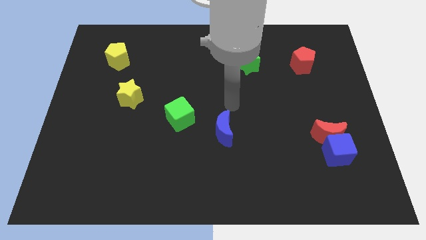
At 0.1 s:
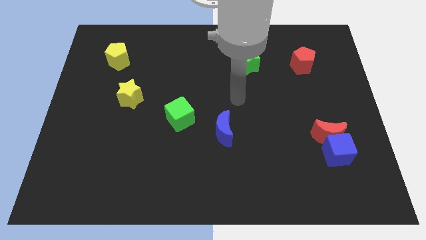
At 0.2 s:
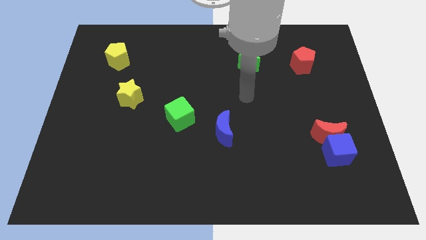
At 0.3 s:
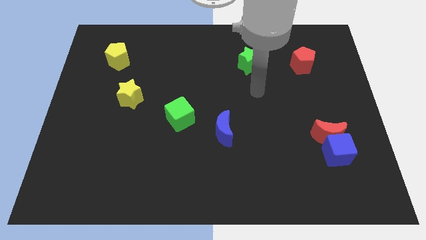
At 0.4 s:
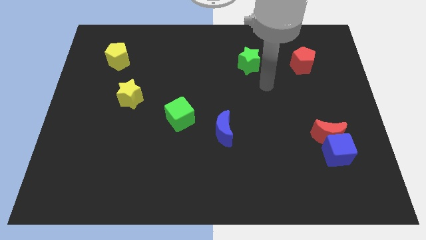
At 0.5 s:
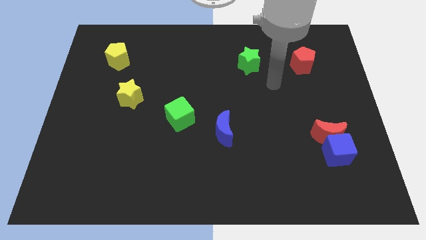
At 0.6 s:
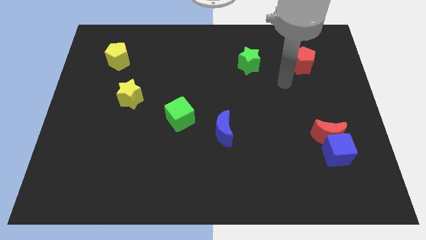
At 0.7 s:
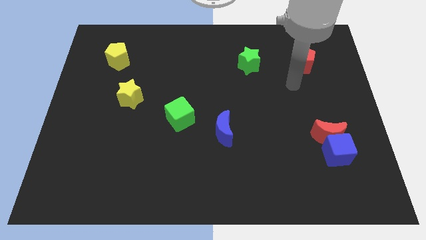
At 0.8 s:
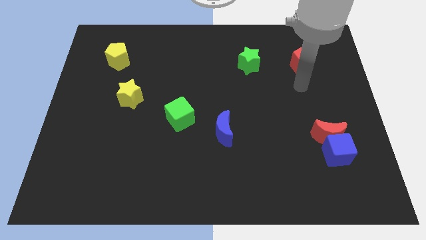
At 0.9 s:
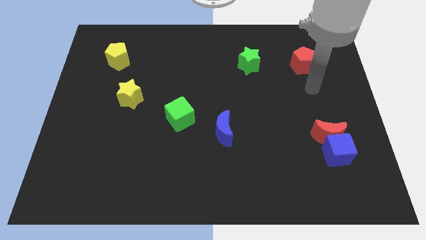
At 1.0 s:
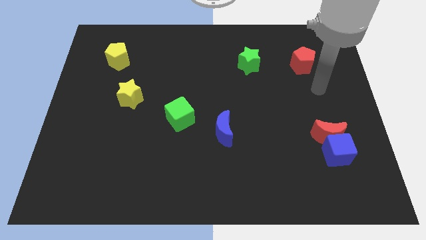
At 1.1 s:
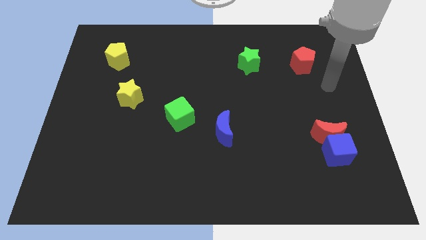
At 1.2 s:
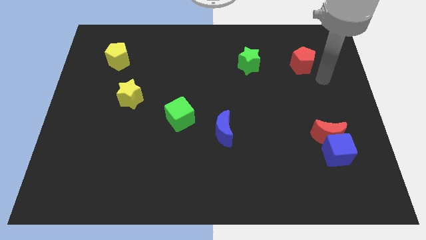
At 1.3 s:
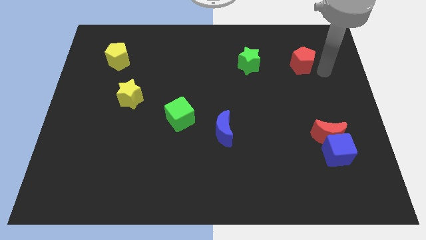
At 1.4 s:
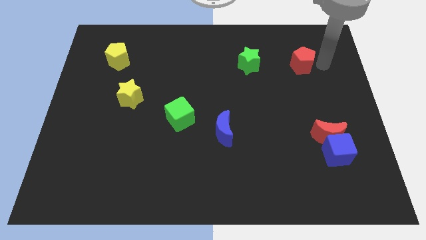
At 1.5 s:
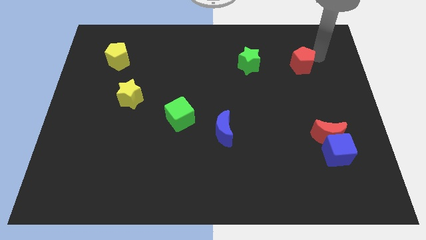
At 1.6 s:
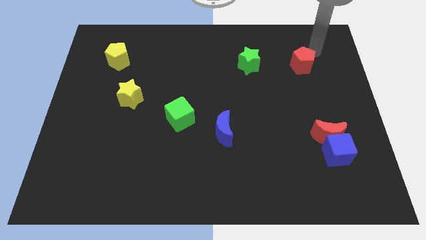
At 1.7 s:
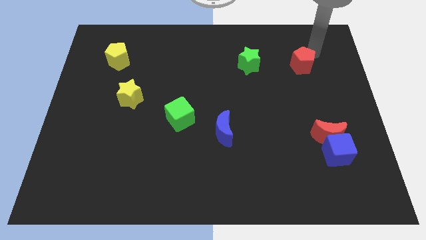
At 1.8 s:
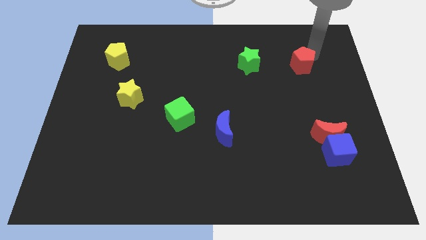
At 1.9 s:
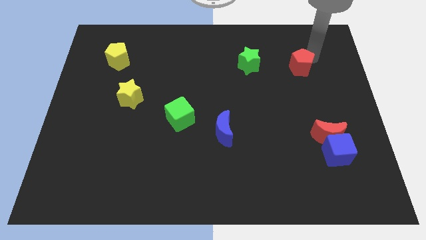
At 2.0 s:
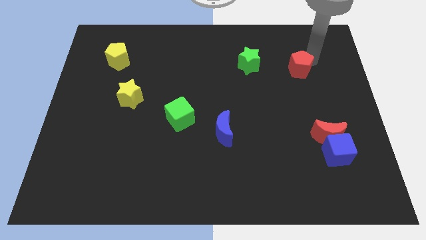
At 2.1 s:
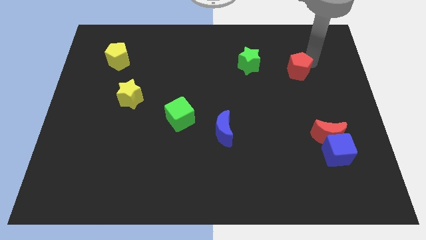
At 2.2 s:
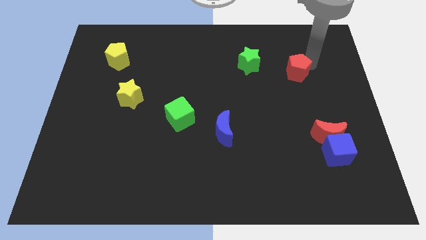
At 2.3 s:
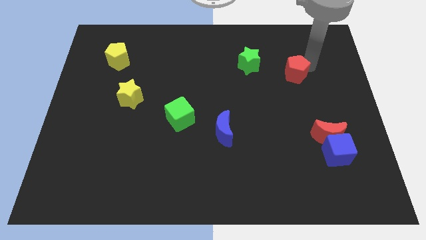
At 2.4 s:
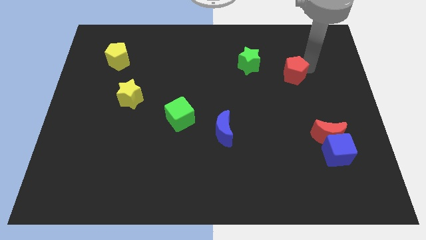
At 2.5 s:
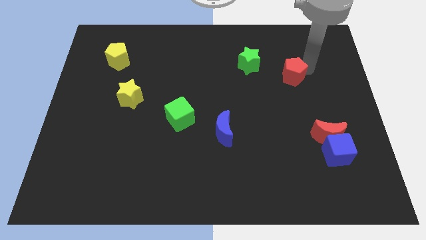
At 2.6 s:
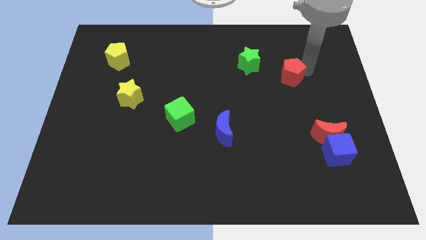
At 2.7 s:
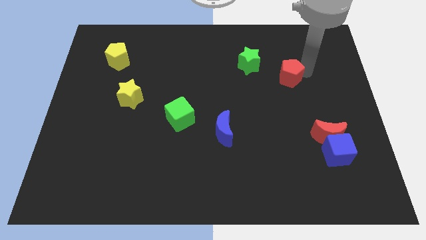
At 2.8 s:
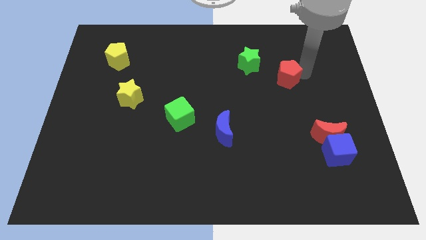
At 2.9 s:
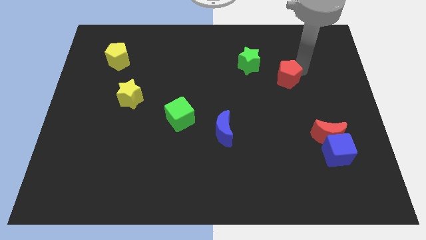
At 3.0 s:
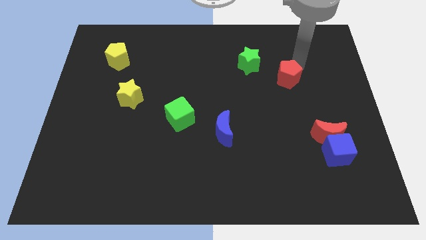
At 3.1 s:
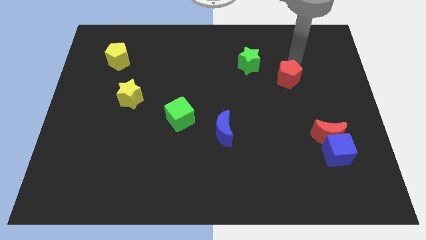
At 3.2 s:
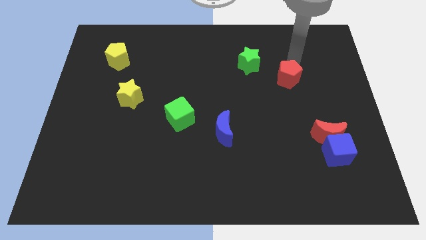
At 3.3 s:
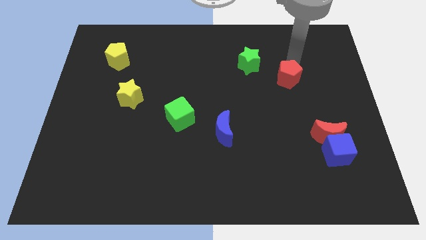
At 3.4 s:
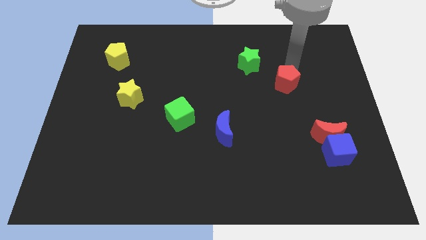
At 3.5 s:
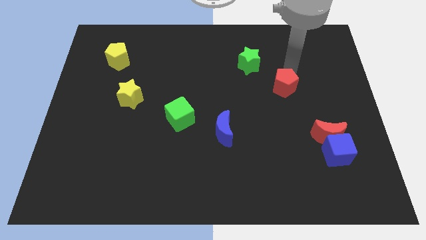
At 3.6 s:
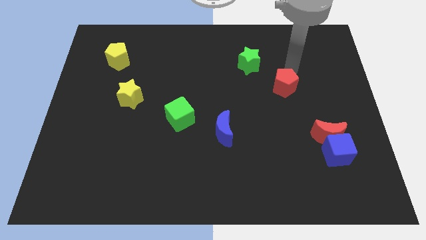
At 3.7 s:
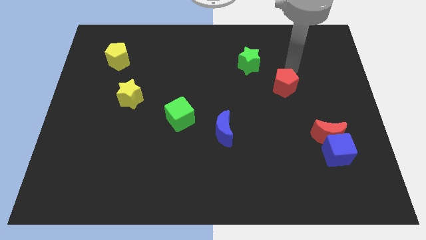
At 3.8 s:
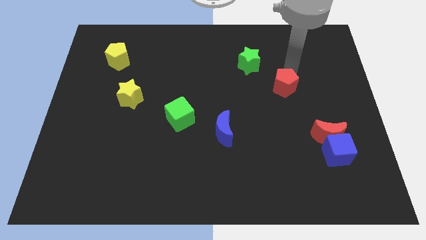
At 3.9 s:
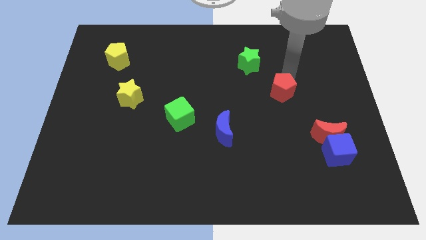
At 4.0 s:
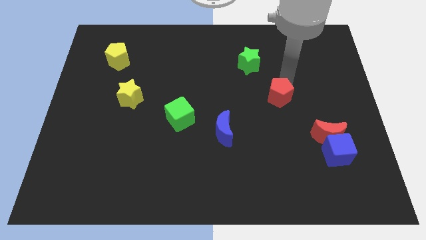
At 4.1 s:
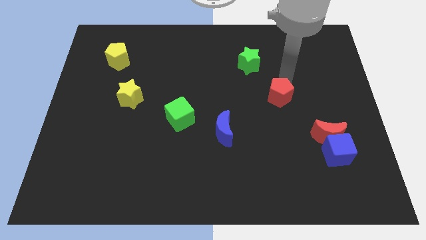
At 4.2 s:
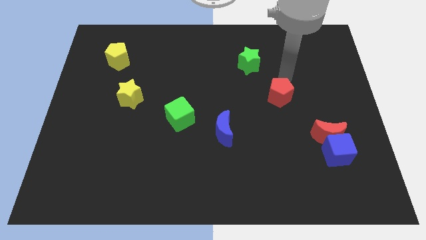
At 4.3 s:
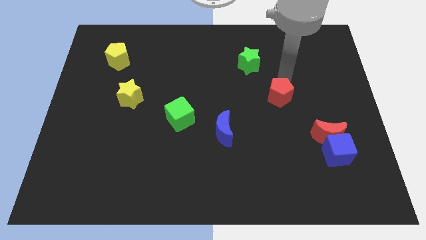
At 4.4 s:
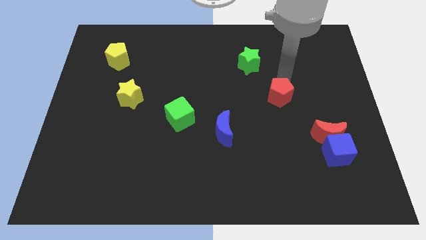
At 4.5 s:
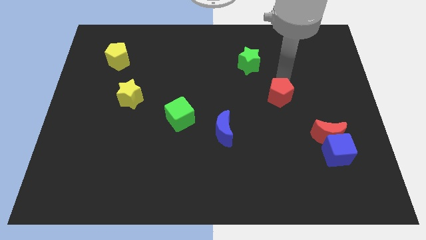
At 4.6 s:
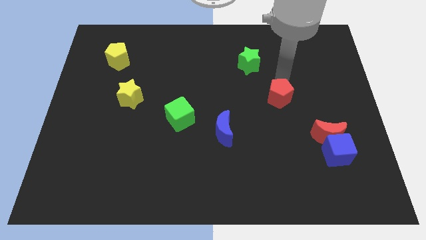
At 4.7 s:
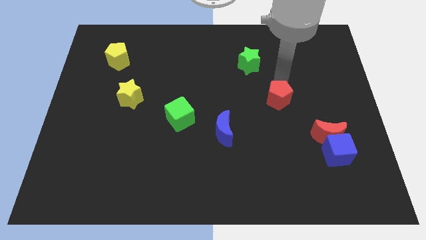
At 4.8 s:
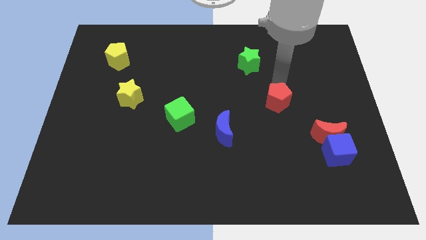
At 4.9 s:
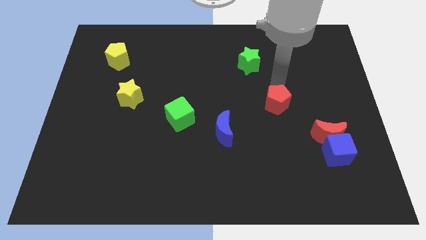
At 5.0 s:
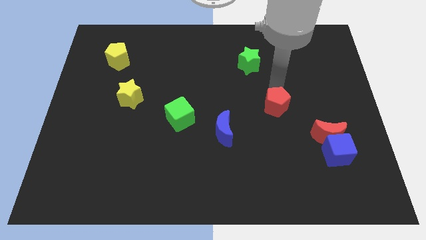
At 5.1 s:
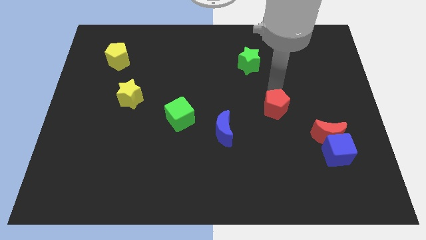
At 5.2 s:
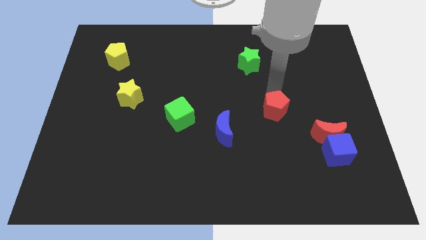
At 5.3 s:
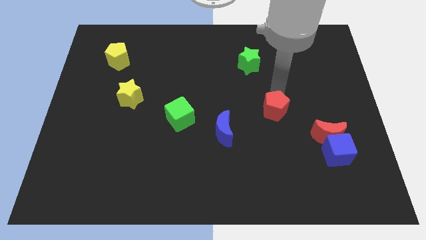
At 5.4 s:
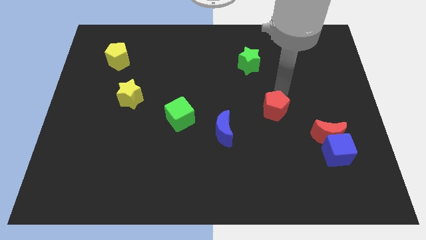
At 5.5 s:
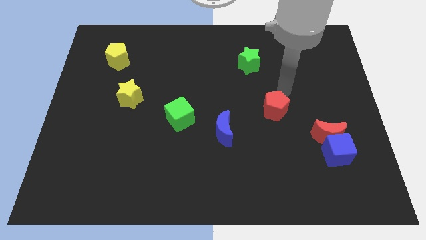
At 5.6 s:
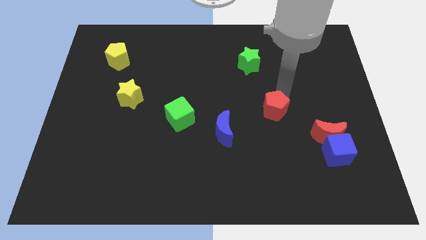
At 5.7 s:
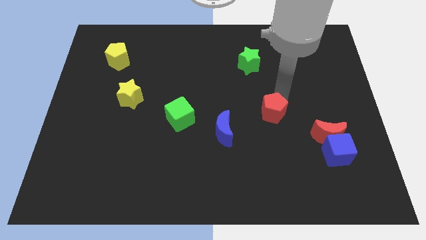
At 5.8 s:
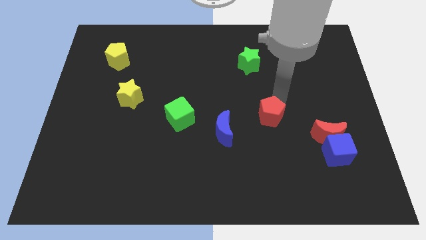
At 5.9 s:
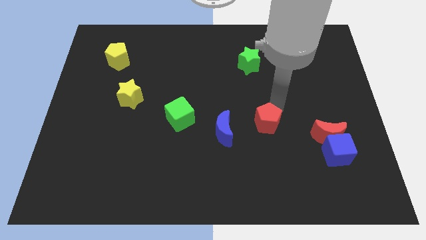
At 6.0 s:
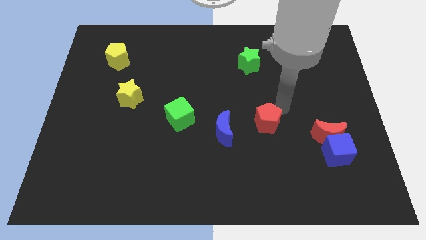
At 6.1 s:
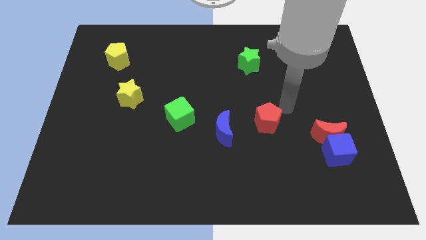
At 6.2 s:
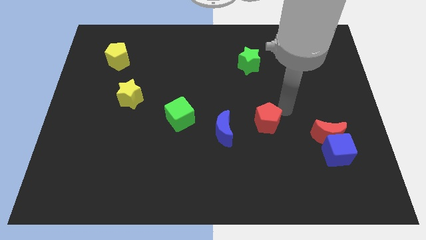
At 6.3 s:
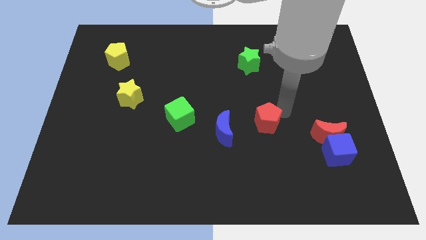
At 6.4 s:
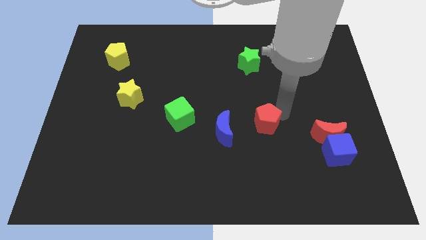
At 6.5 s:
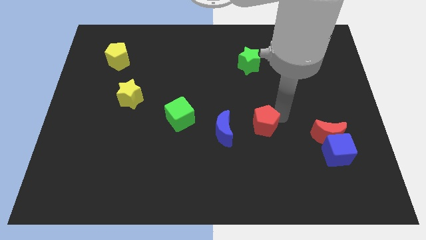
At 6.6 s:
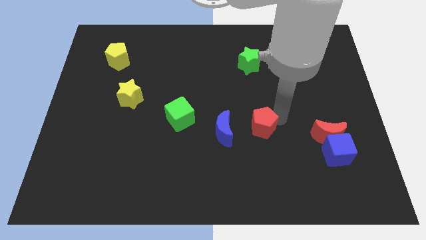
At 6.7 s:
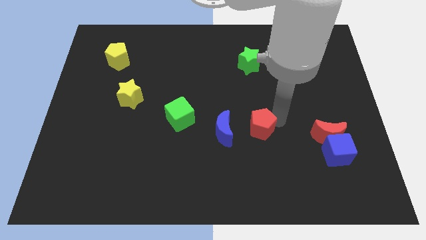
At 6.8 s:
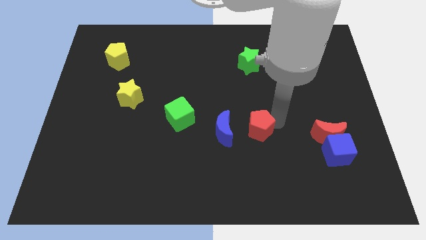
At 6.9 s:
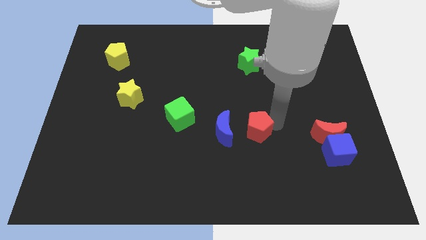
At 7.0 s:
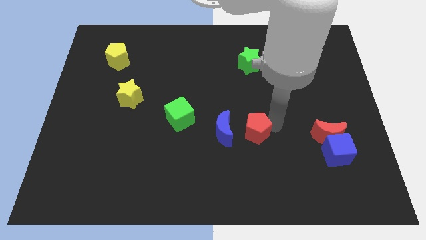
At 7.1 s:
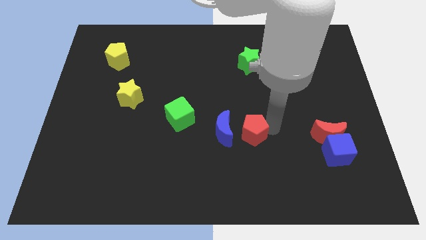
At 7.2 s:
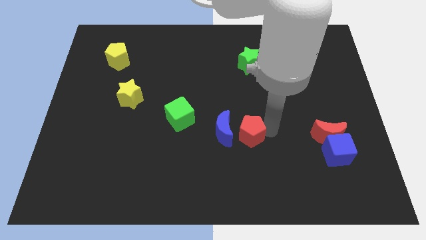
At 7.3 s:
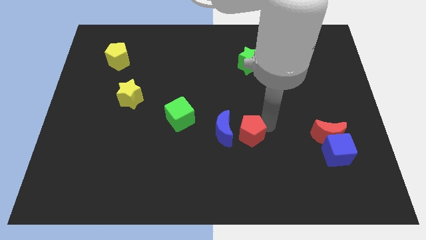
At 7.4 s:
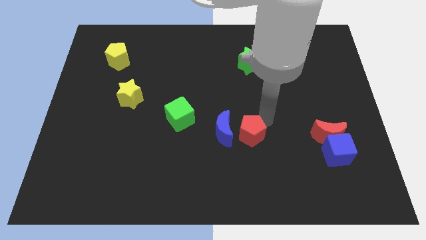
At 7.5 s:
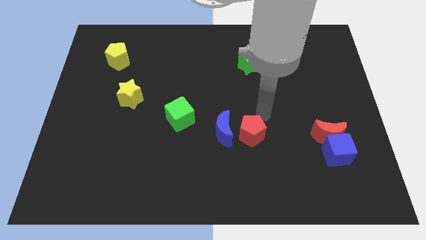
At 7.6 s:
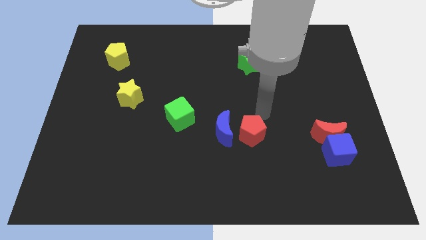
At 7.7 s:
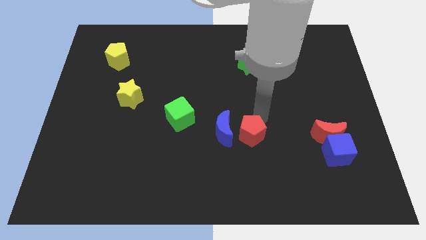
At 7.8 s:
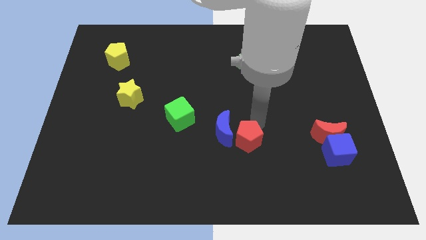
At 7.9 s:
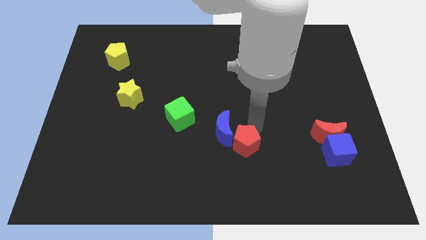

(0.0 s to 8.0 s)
put the red pentagon to the bottom of the blue moon
